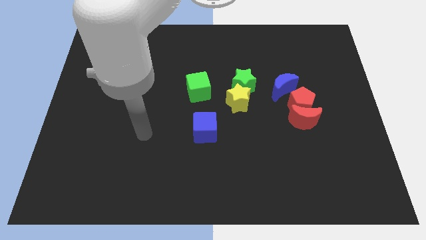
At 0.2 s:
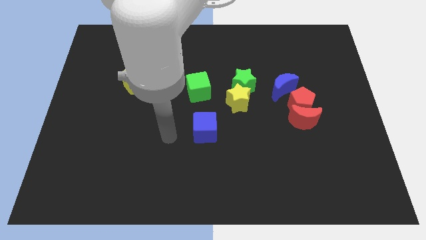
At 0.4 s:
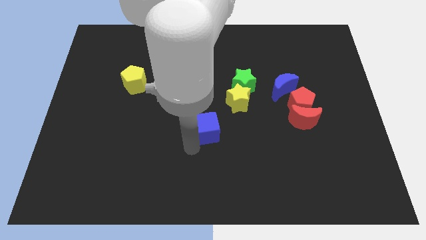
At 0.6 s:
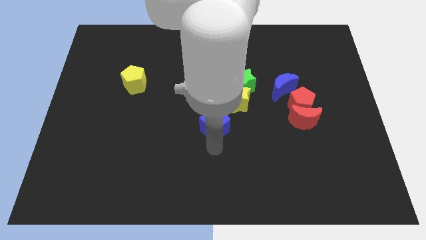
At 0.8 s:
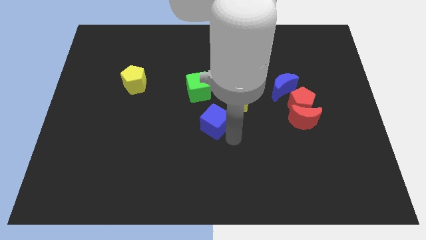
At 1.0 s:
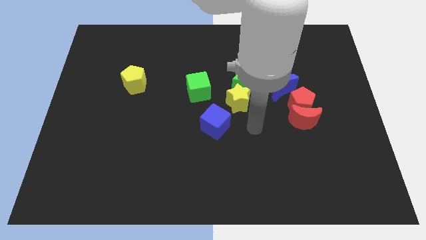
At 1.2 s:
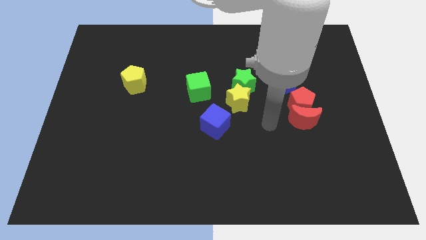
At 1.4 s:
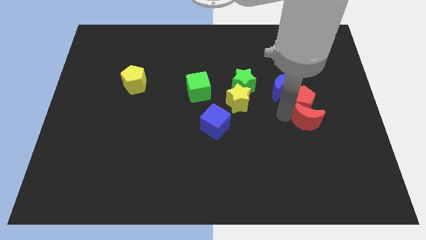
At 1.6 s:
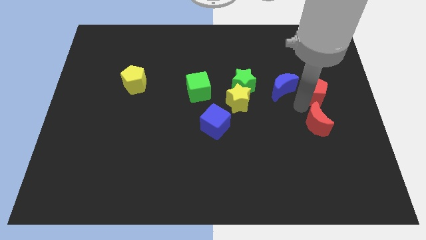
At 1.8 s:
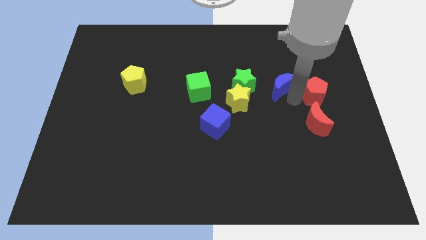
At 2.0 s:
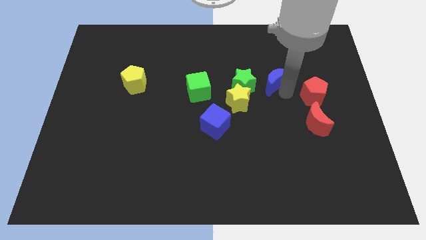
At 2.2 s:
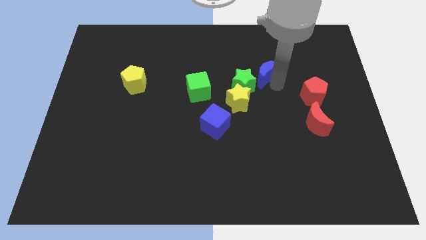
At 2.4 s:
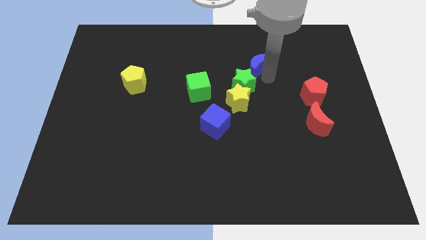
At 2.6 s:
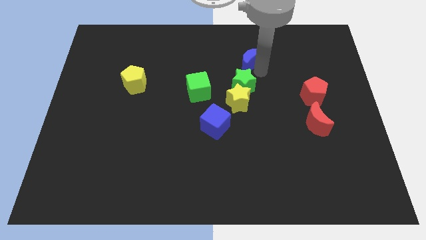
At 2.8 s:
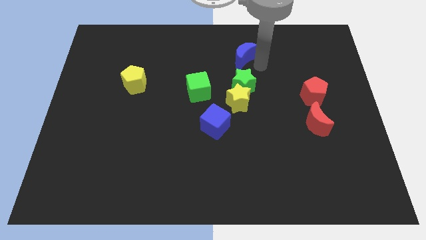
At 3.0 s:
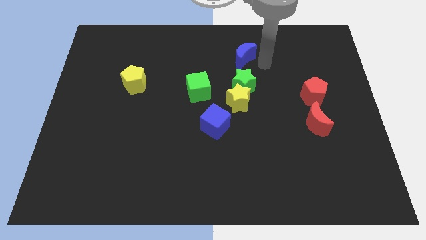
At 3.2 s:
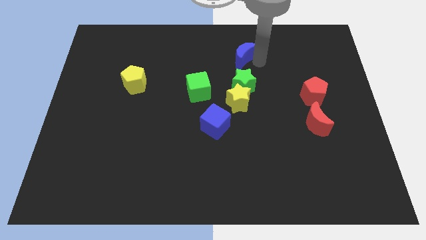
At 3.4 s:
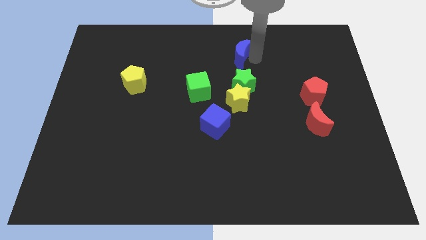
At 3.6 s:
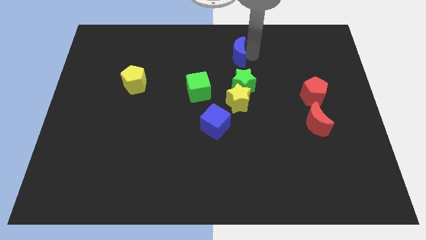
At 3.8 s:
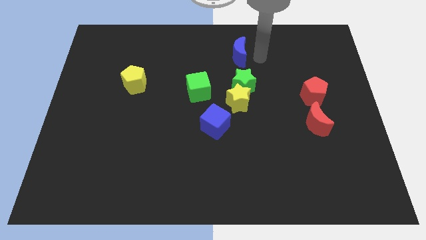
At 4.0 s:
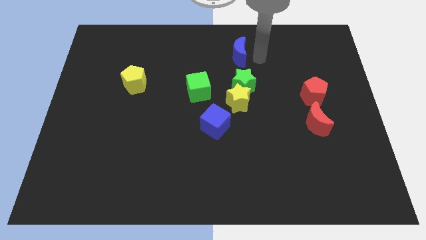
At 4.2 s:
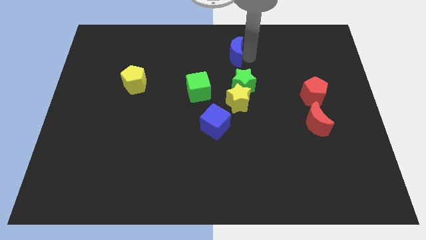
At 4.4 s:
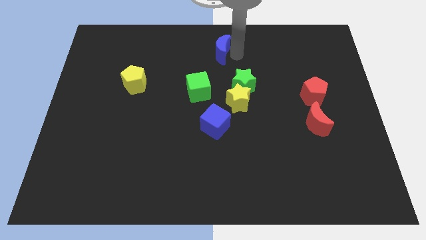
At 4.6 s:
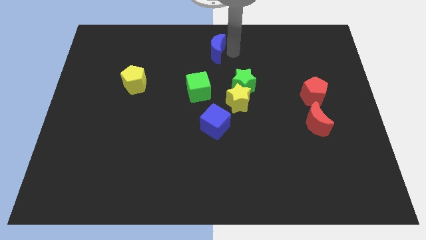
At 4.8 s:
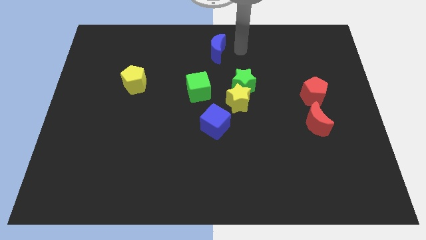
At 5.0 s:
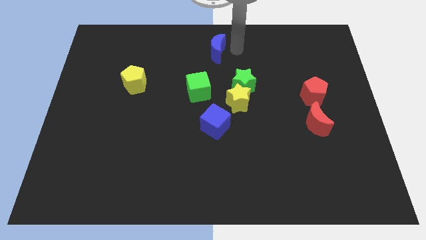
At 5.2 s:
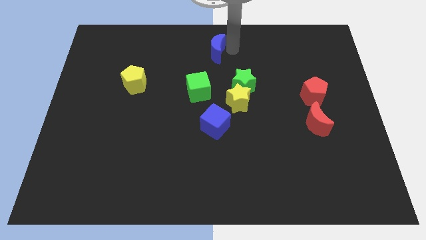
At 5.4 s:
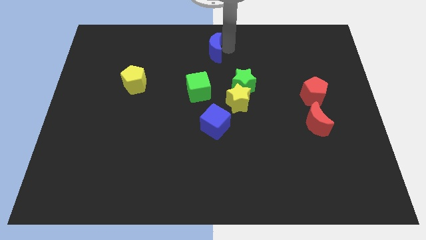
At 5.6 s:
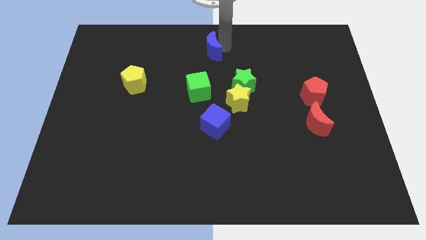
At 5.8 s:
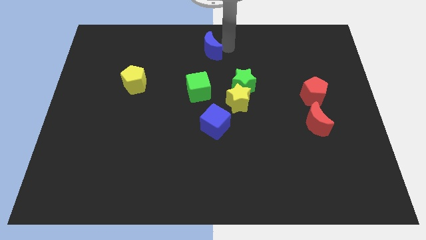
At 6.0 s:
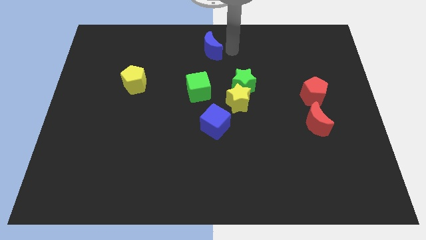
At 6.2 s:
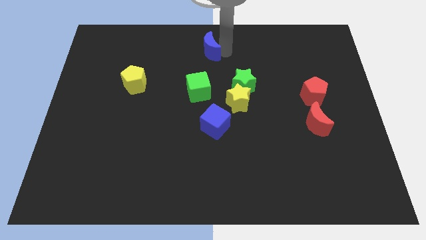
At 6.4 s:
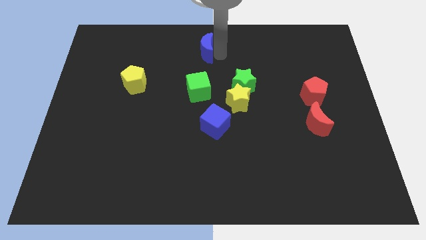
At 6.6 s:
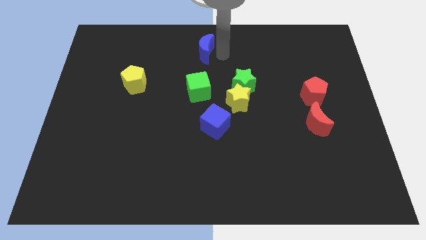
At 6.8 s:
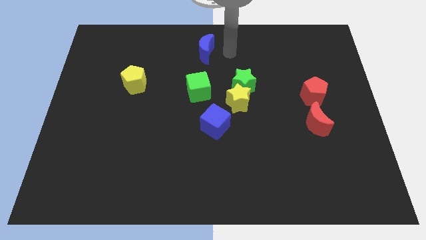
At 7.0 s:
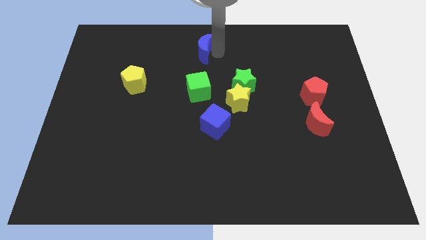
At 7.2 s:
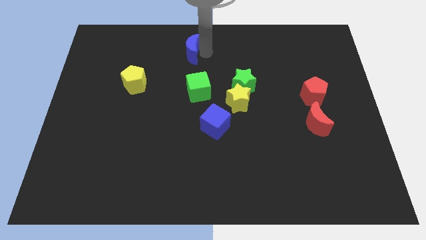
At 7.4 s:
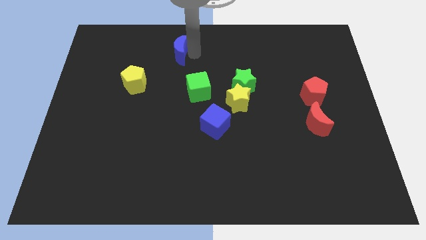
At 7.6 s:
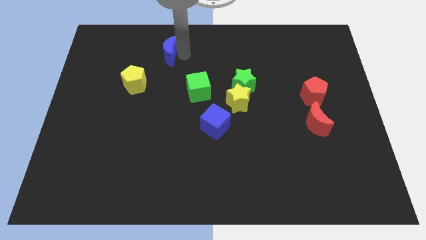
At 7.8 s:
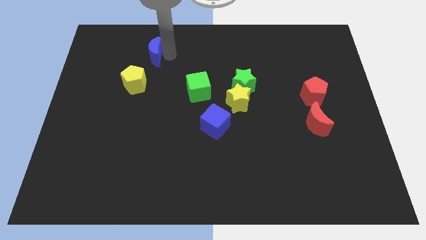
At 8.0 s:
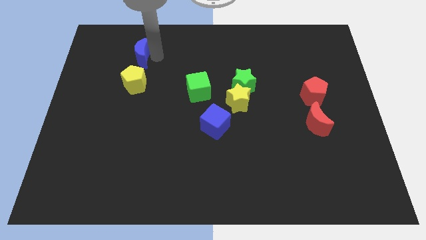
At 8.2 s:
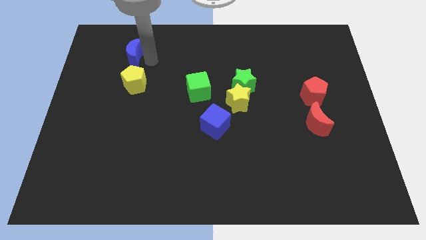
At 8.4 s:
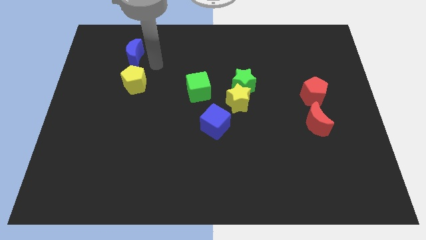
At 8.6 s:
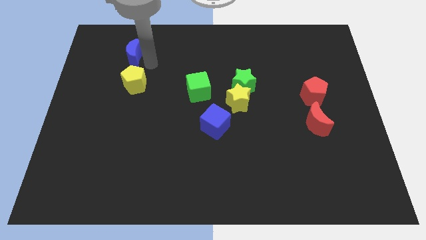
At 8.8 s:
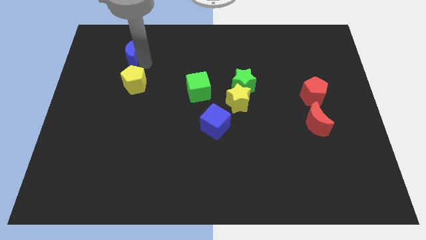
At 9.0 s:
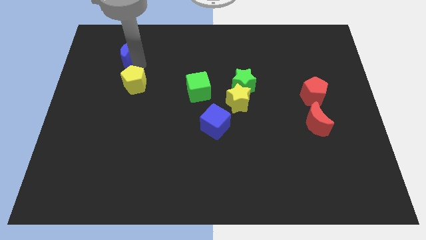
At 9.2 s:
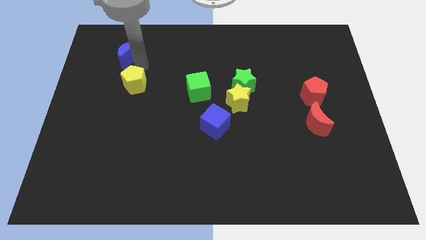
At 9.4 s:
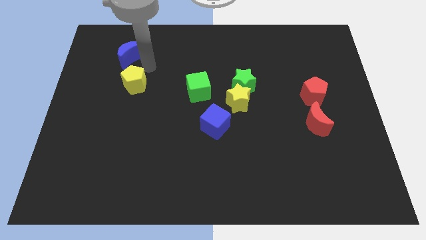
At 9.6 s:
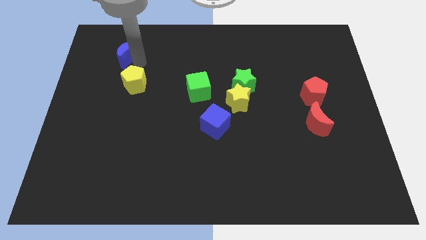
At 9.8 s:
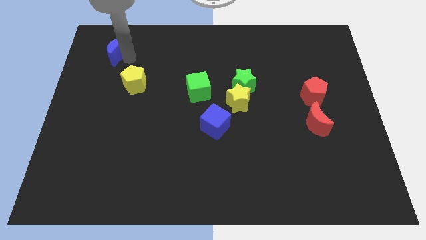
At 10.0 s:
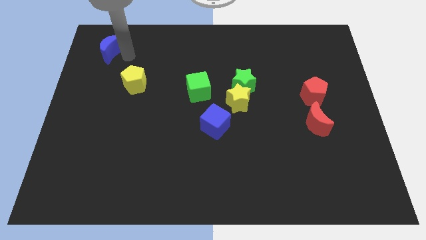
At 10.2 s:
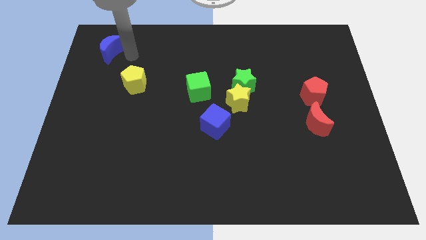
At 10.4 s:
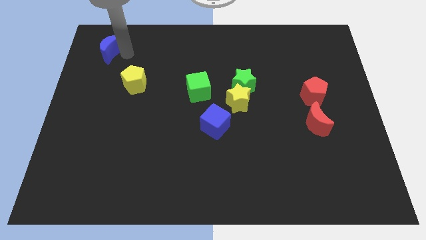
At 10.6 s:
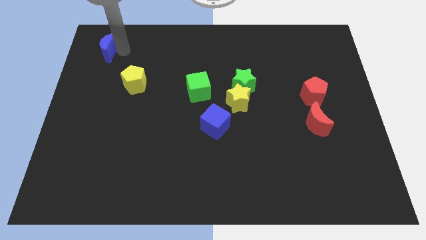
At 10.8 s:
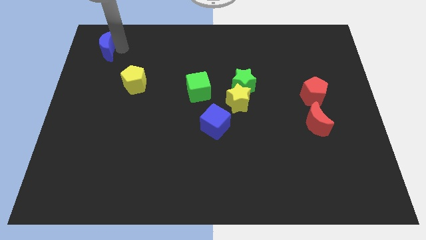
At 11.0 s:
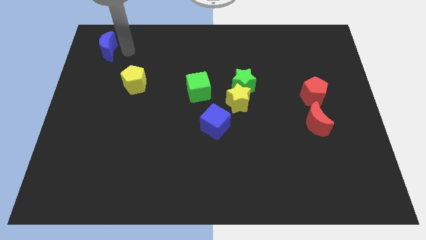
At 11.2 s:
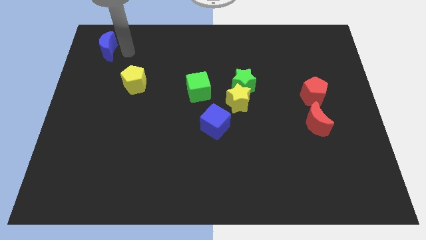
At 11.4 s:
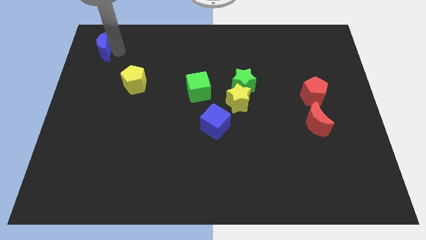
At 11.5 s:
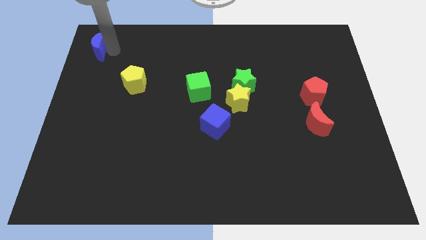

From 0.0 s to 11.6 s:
push the blue moon to the upper left corner
